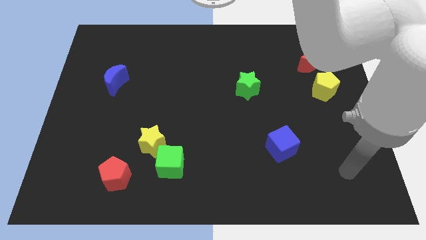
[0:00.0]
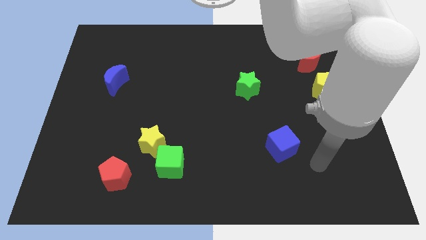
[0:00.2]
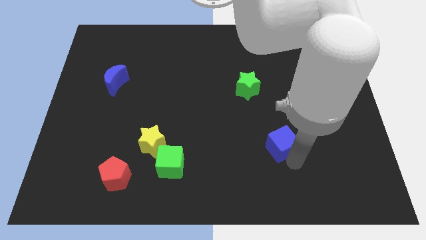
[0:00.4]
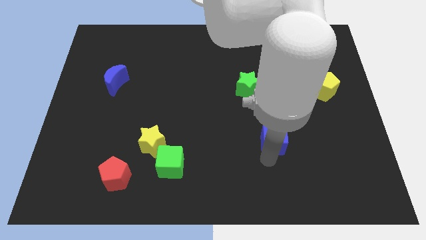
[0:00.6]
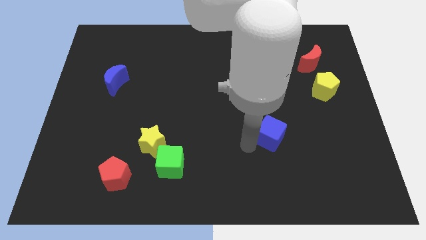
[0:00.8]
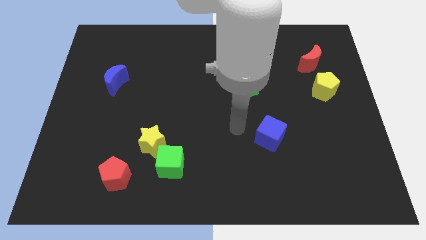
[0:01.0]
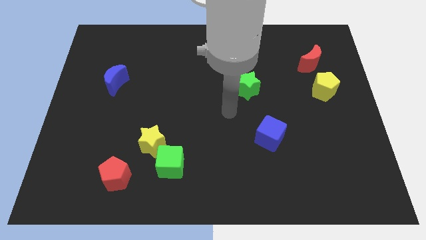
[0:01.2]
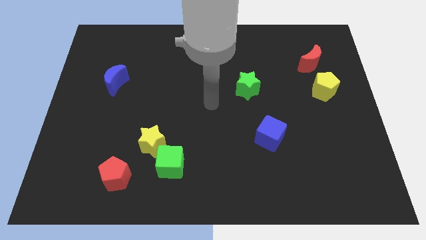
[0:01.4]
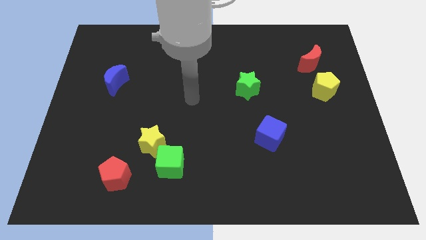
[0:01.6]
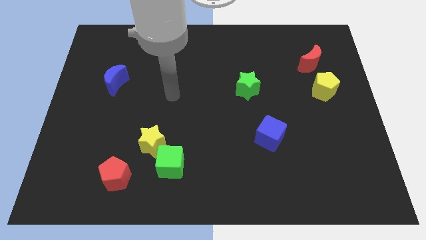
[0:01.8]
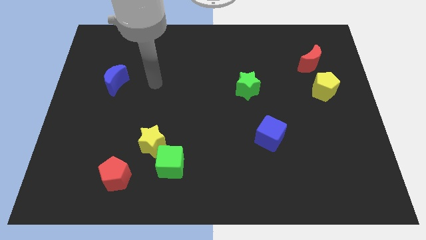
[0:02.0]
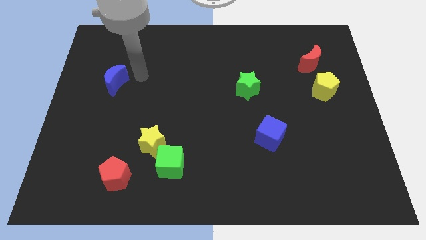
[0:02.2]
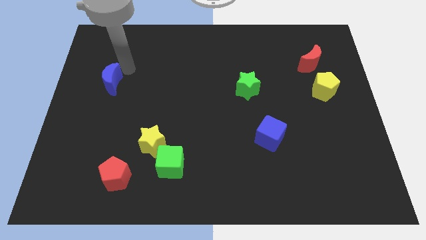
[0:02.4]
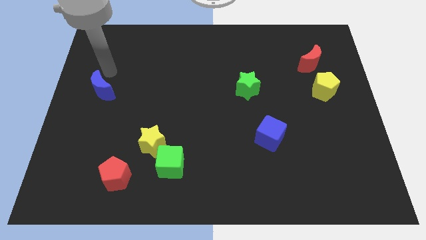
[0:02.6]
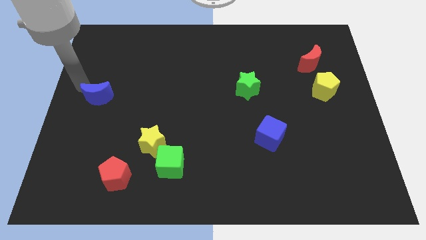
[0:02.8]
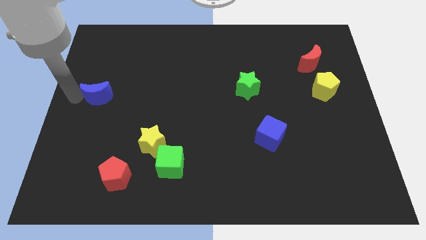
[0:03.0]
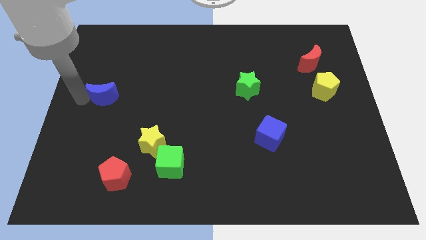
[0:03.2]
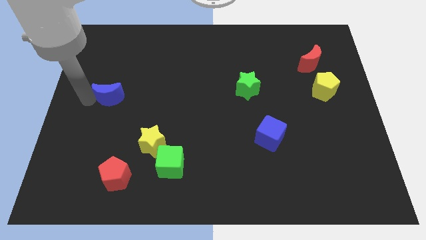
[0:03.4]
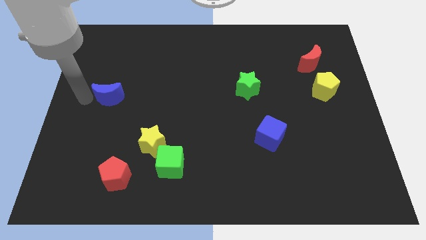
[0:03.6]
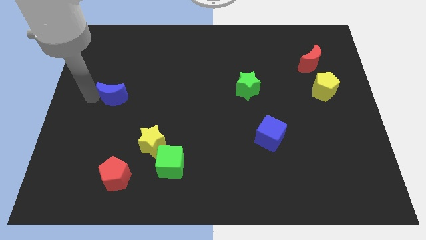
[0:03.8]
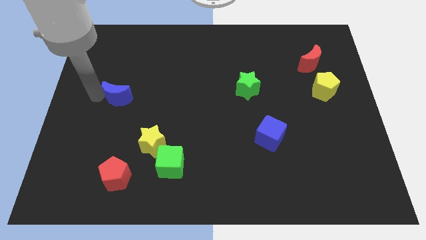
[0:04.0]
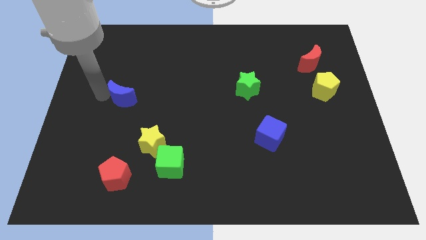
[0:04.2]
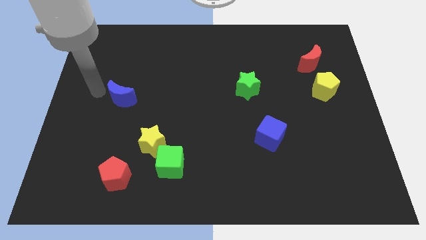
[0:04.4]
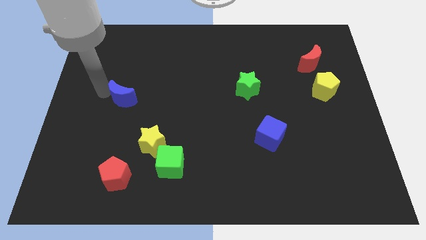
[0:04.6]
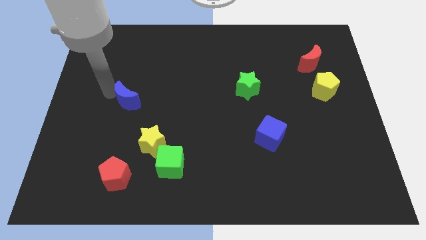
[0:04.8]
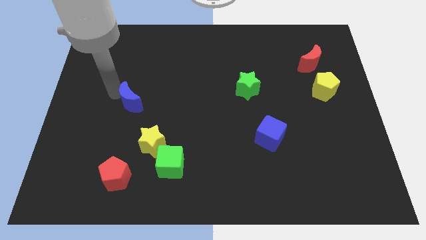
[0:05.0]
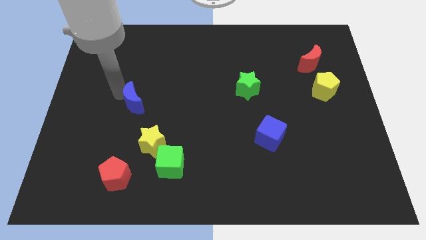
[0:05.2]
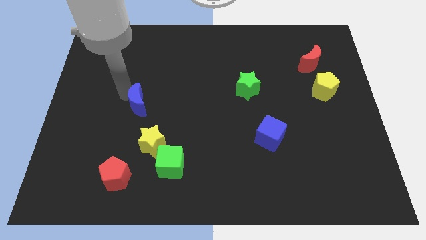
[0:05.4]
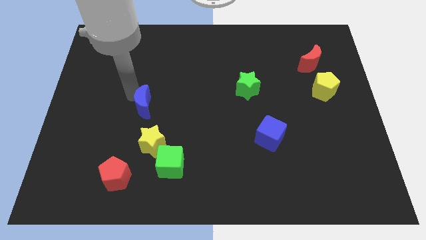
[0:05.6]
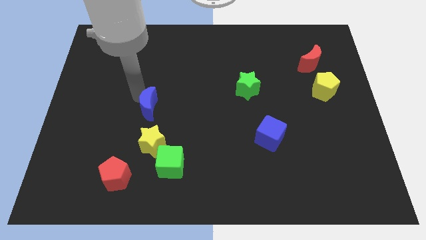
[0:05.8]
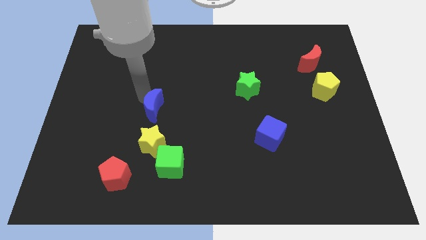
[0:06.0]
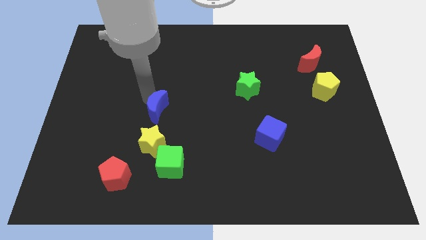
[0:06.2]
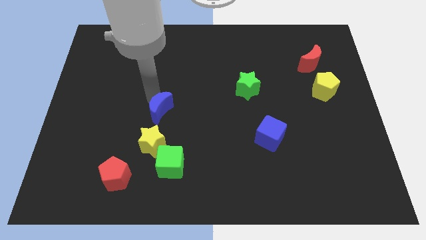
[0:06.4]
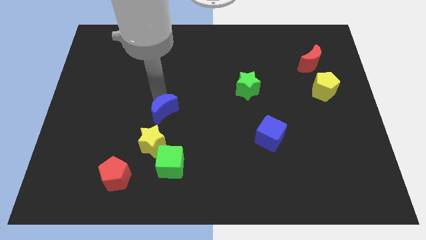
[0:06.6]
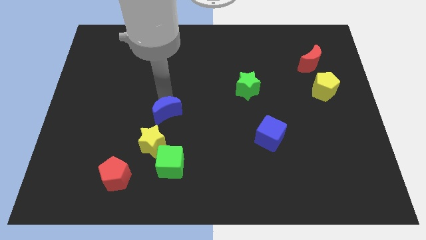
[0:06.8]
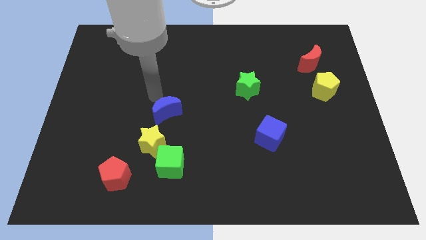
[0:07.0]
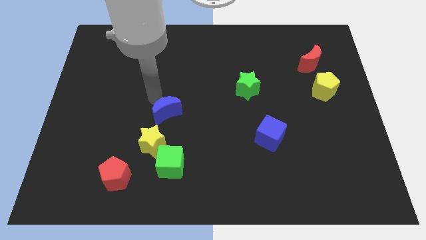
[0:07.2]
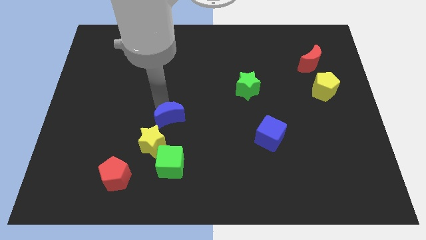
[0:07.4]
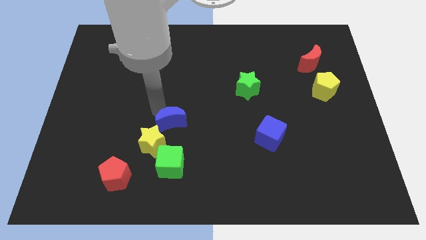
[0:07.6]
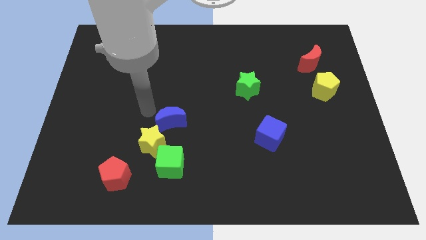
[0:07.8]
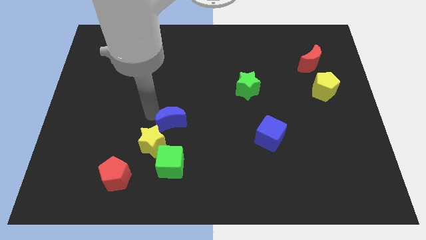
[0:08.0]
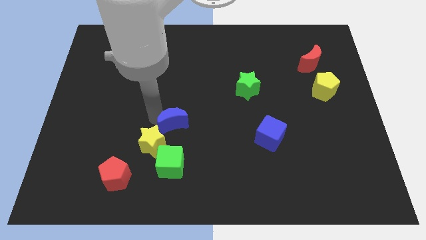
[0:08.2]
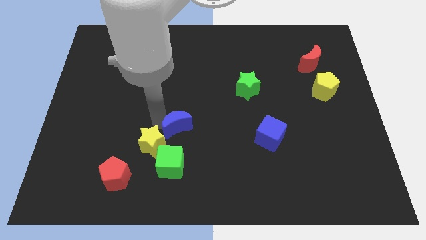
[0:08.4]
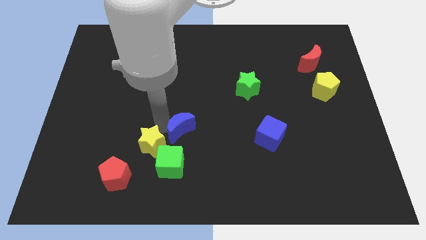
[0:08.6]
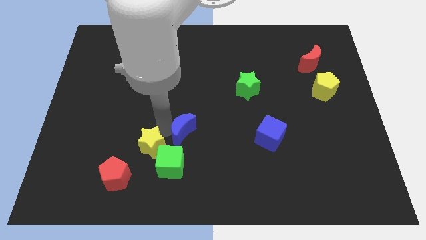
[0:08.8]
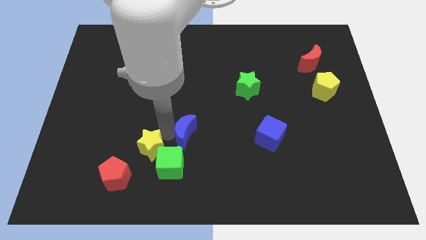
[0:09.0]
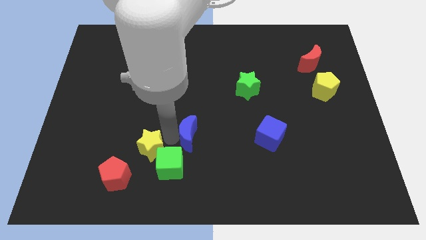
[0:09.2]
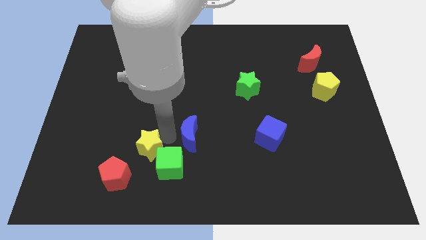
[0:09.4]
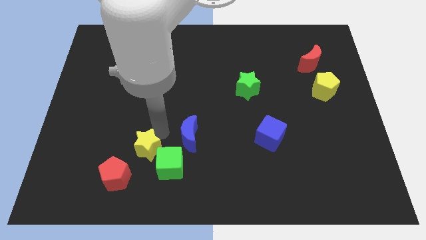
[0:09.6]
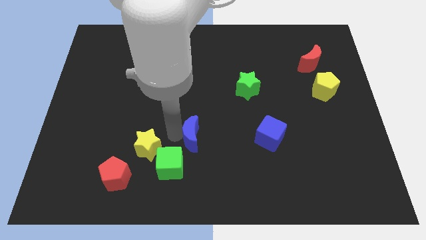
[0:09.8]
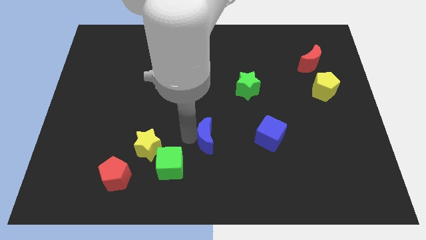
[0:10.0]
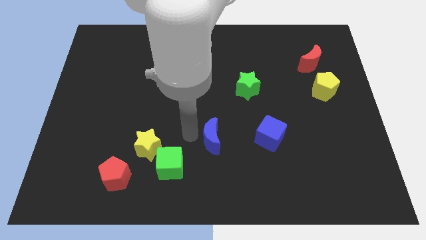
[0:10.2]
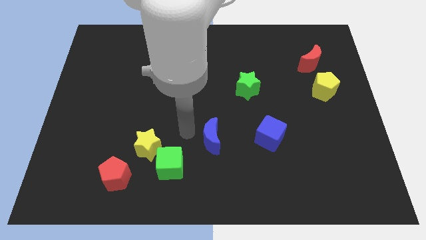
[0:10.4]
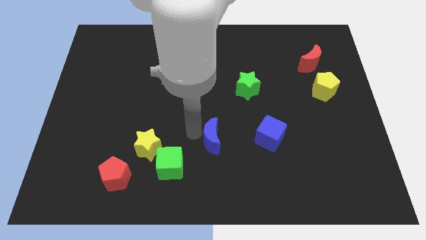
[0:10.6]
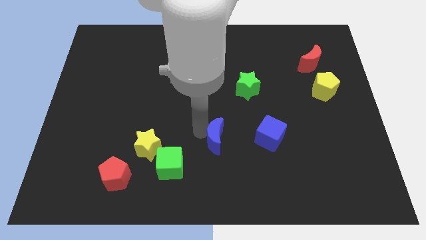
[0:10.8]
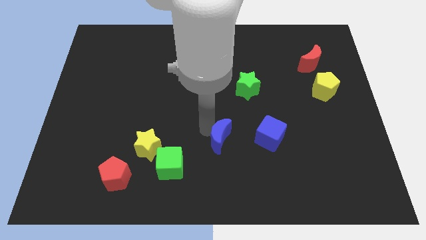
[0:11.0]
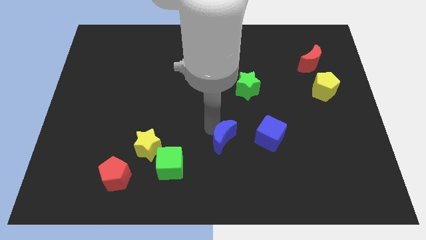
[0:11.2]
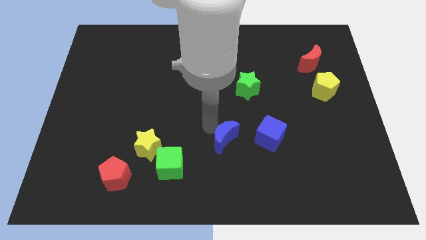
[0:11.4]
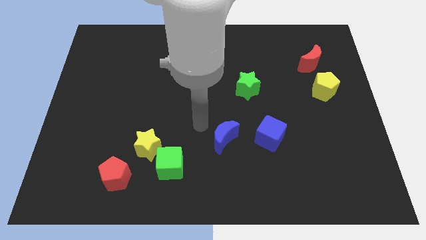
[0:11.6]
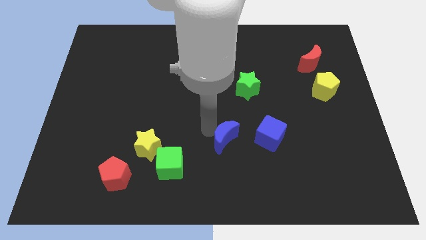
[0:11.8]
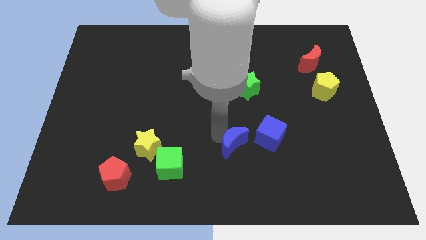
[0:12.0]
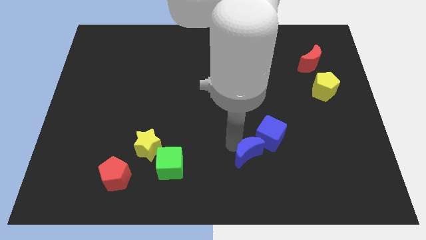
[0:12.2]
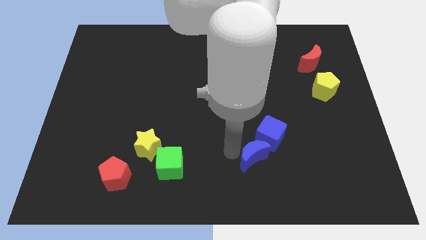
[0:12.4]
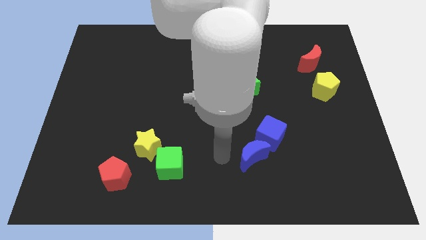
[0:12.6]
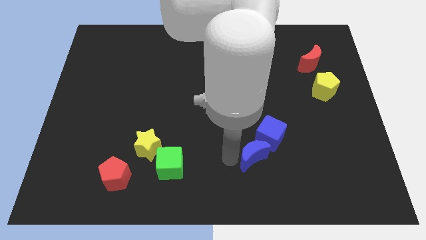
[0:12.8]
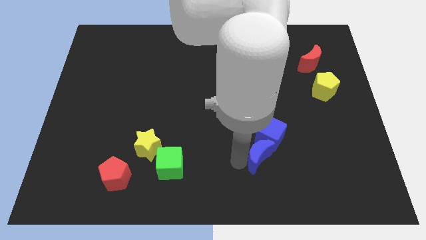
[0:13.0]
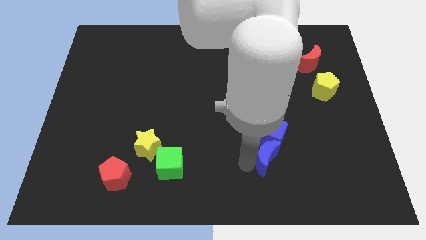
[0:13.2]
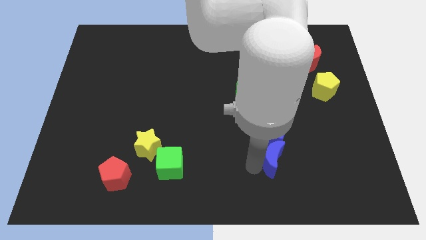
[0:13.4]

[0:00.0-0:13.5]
slide the blue moon diagonally down and to the right of the blue cube

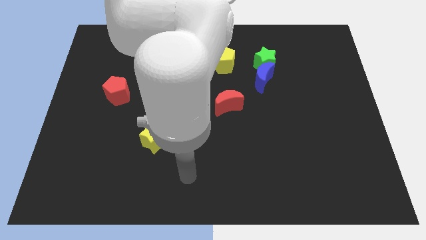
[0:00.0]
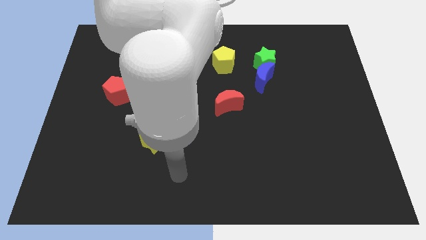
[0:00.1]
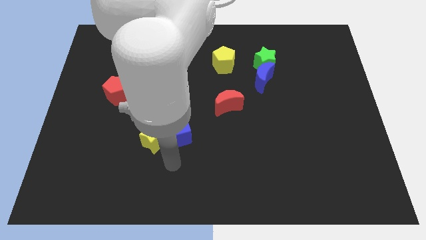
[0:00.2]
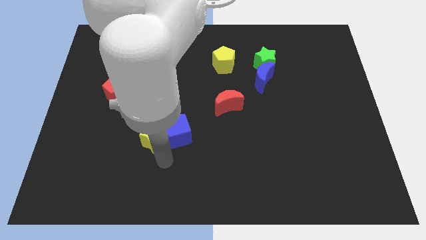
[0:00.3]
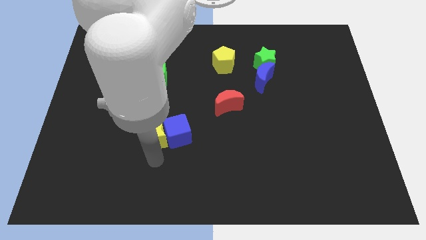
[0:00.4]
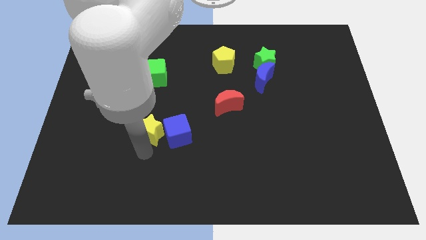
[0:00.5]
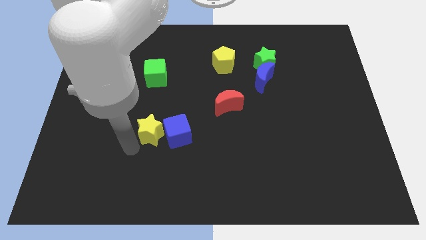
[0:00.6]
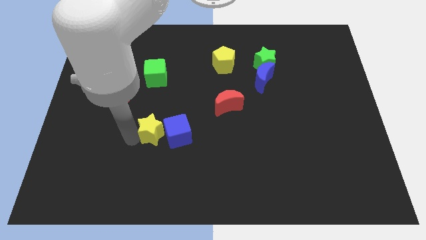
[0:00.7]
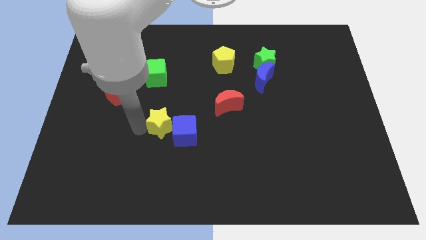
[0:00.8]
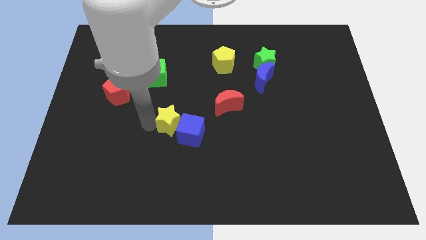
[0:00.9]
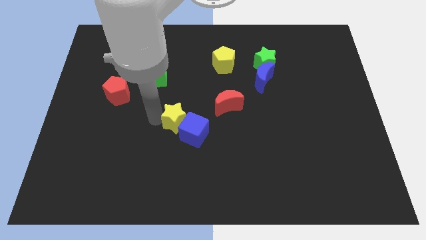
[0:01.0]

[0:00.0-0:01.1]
put the blue cube below the yellow star
